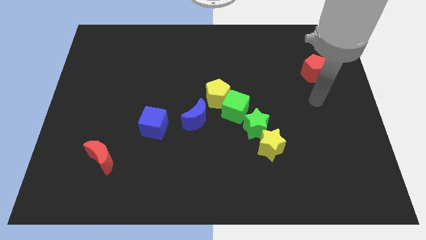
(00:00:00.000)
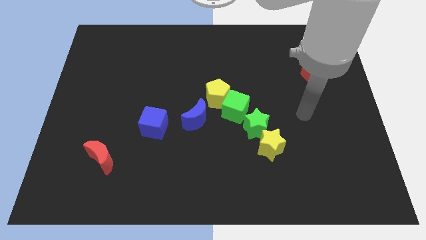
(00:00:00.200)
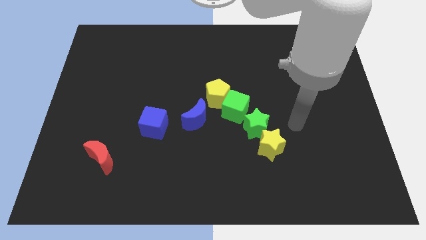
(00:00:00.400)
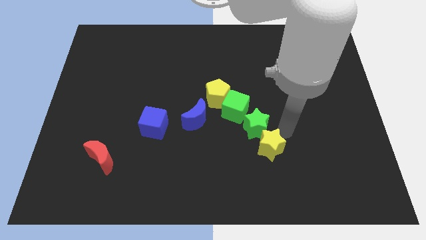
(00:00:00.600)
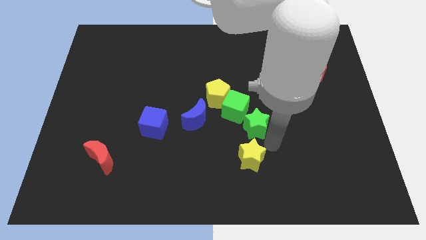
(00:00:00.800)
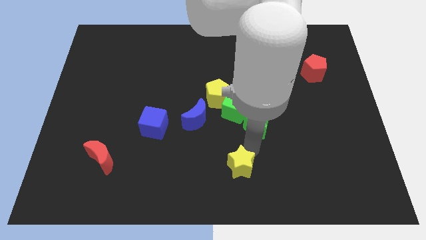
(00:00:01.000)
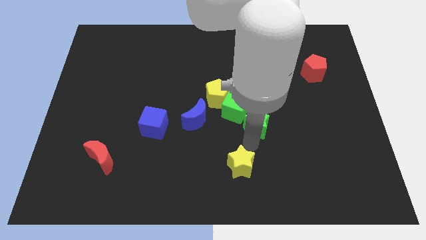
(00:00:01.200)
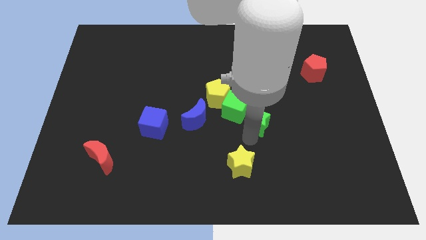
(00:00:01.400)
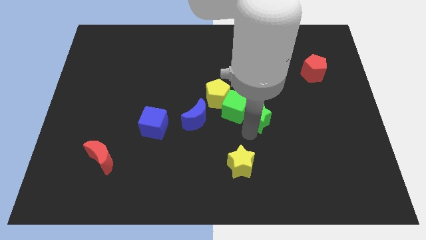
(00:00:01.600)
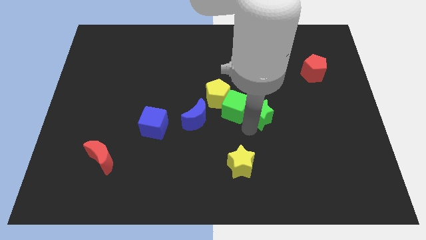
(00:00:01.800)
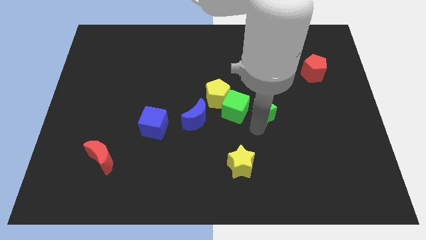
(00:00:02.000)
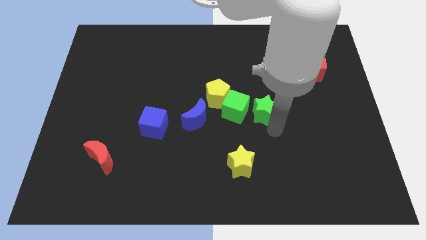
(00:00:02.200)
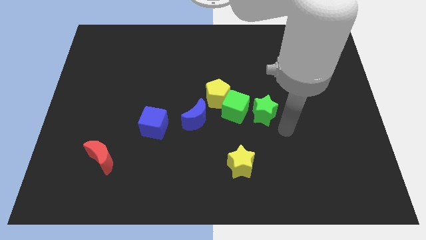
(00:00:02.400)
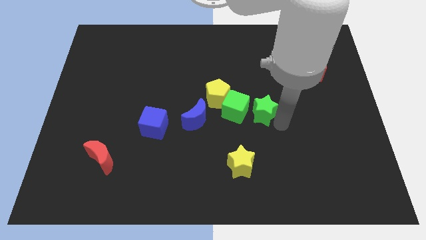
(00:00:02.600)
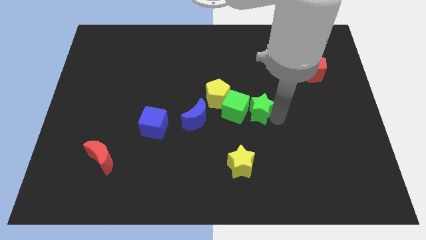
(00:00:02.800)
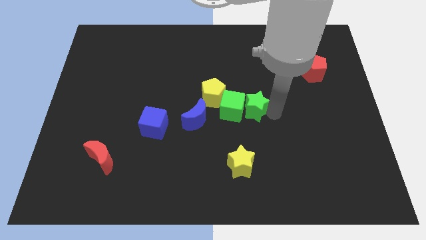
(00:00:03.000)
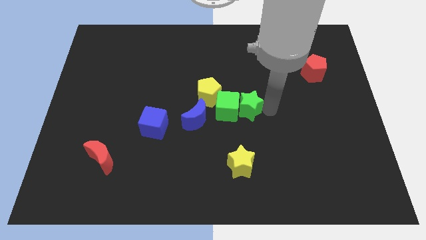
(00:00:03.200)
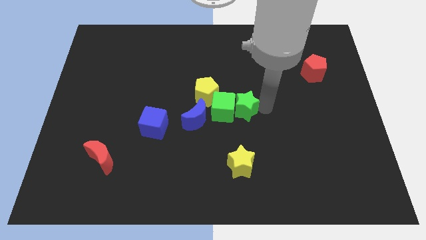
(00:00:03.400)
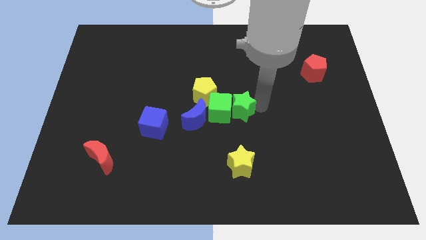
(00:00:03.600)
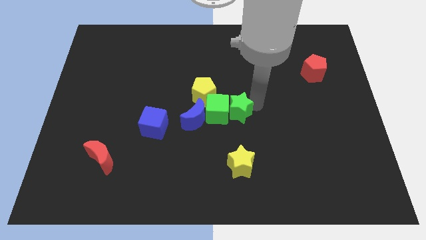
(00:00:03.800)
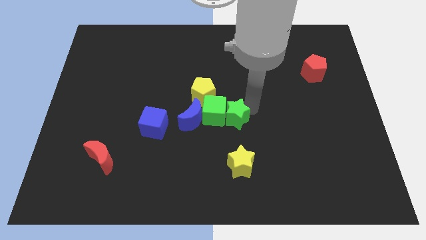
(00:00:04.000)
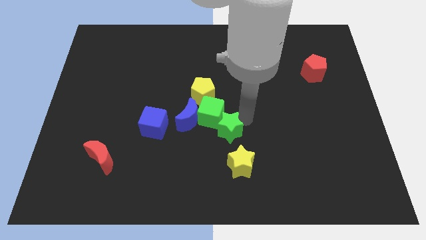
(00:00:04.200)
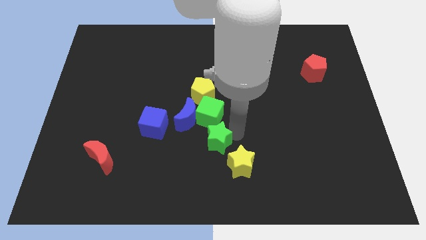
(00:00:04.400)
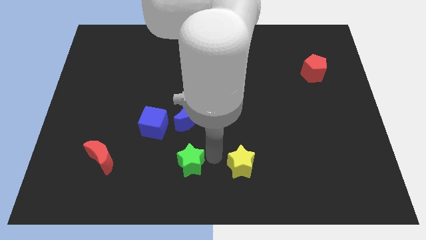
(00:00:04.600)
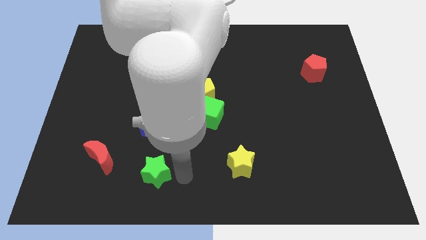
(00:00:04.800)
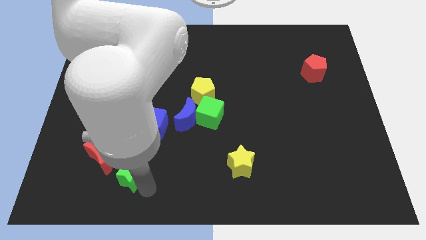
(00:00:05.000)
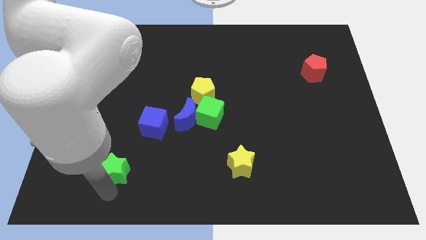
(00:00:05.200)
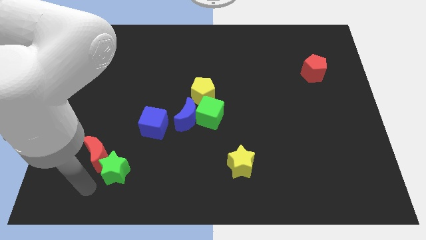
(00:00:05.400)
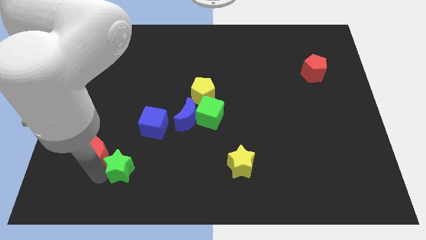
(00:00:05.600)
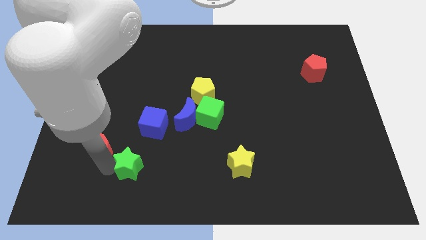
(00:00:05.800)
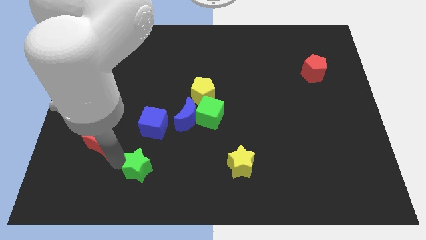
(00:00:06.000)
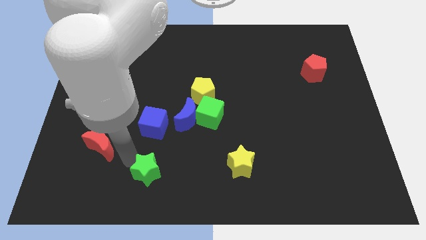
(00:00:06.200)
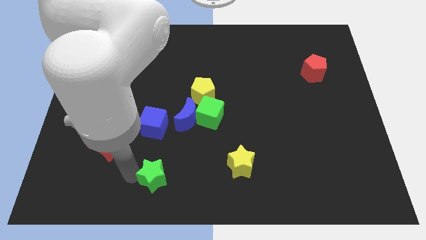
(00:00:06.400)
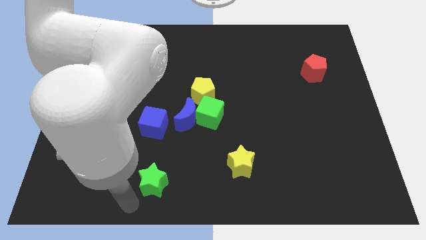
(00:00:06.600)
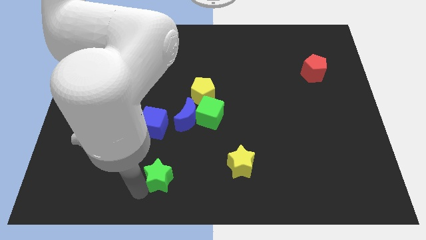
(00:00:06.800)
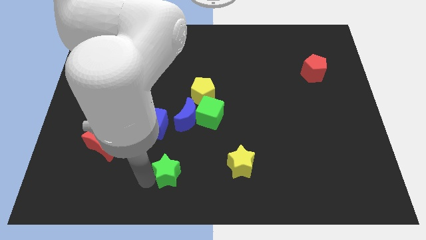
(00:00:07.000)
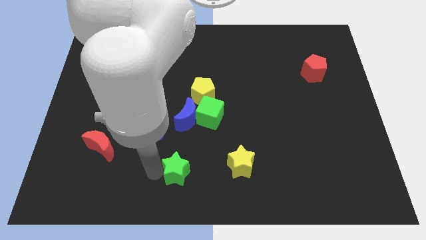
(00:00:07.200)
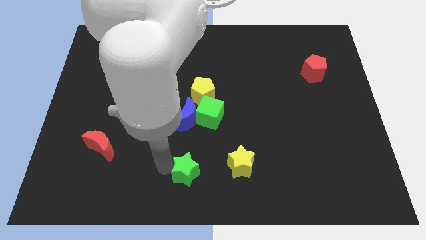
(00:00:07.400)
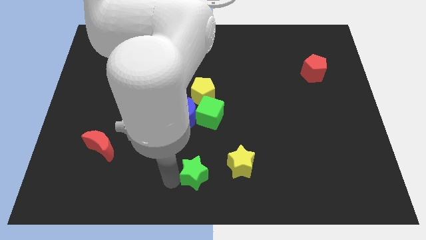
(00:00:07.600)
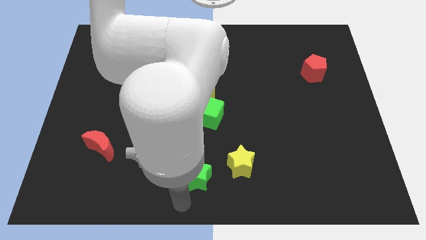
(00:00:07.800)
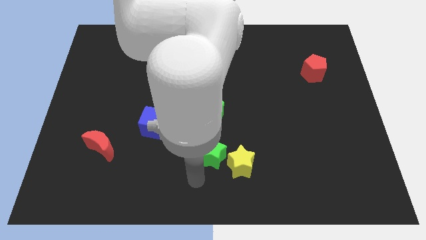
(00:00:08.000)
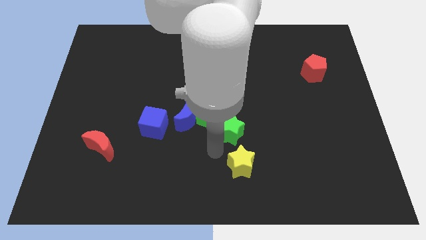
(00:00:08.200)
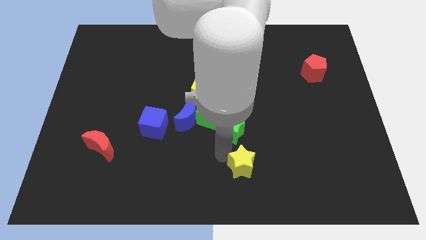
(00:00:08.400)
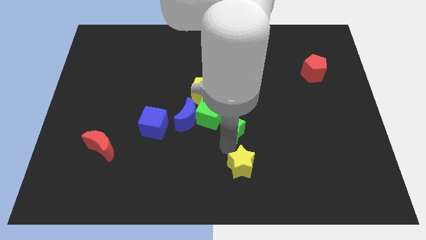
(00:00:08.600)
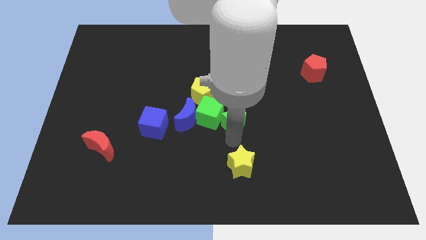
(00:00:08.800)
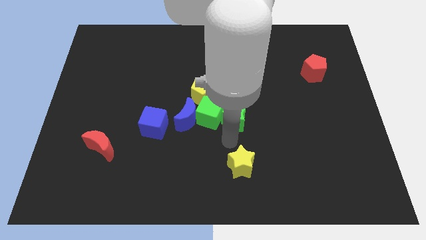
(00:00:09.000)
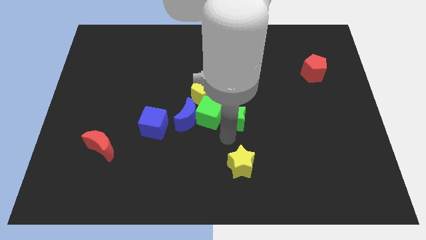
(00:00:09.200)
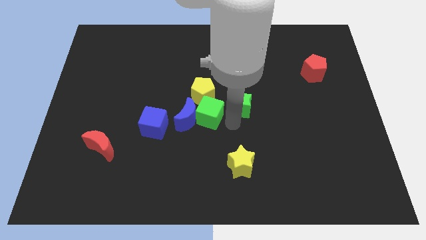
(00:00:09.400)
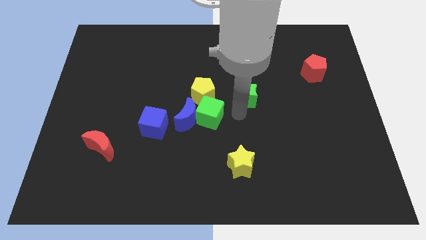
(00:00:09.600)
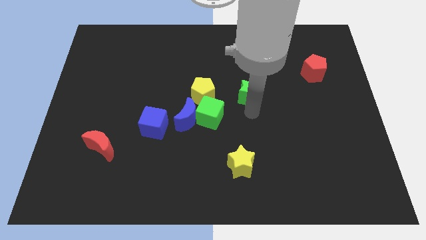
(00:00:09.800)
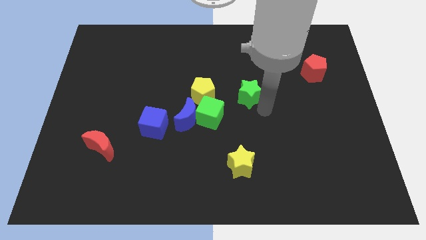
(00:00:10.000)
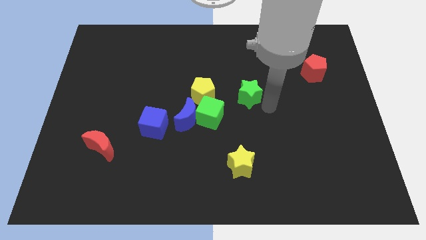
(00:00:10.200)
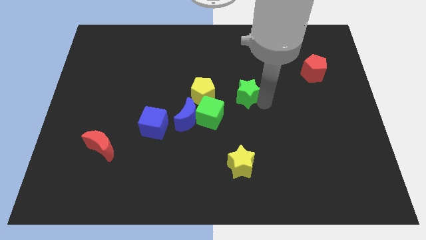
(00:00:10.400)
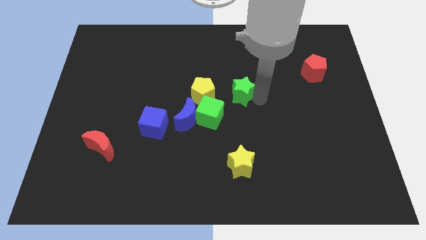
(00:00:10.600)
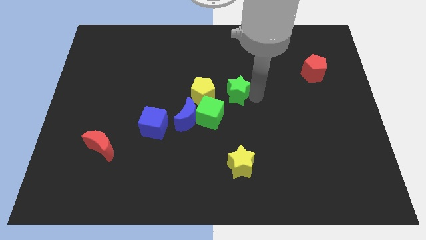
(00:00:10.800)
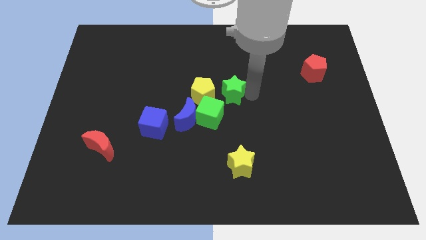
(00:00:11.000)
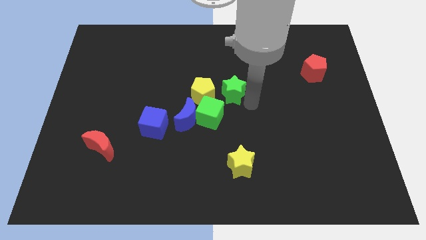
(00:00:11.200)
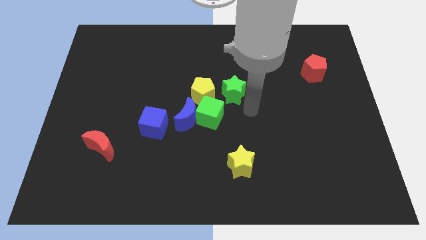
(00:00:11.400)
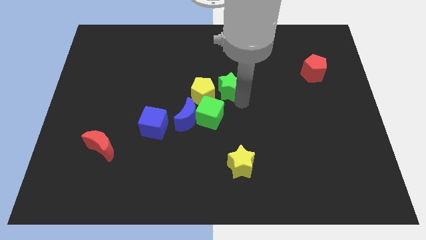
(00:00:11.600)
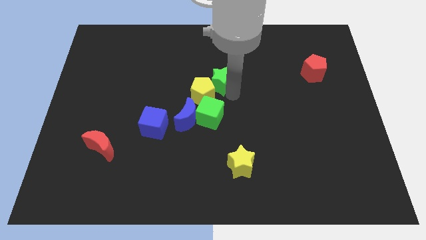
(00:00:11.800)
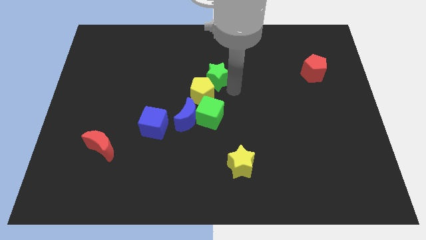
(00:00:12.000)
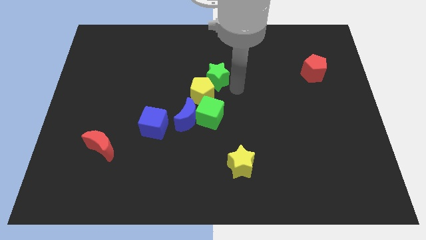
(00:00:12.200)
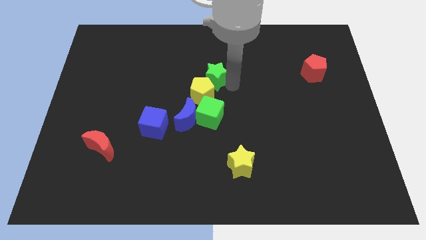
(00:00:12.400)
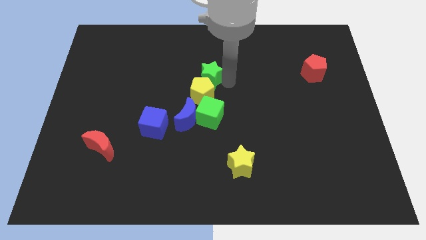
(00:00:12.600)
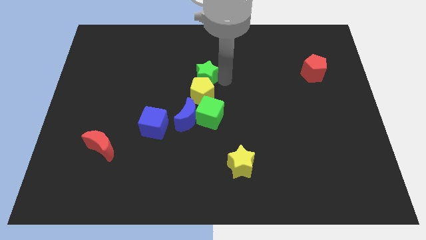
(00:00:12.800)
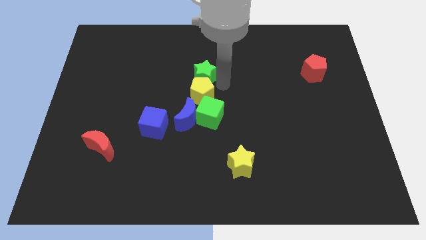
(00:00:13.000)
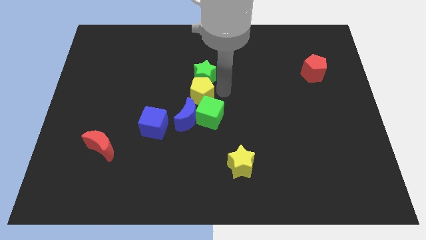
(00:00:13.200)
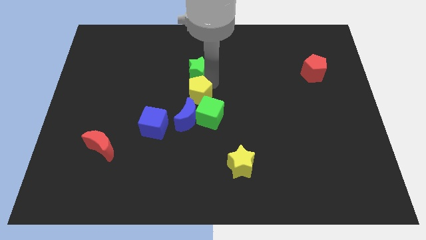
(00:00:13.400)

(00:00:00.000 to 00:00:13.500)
slide the green star diagonally upwards and left

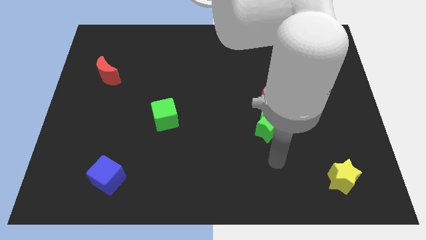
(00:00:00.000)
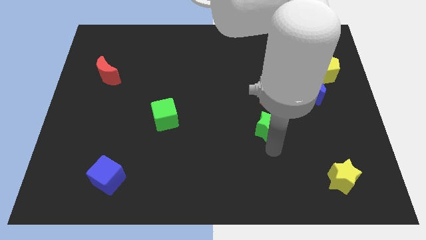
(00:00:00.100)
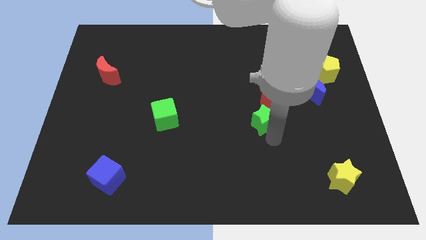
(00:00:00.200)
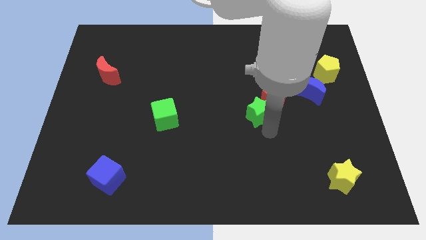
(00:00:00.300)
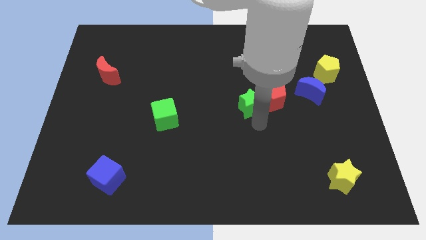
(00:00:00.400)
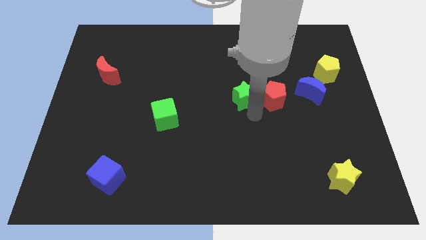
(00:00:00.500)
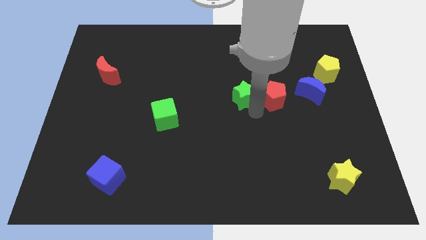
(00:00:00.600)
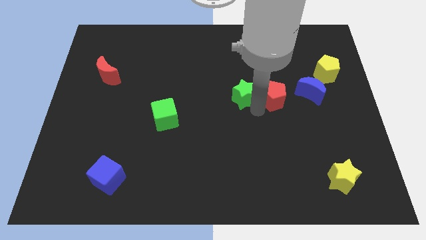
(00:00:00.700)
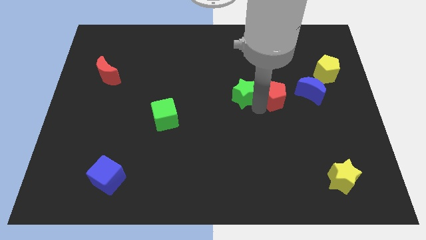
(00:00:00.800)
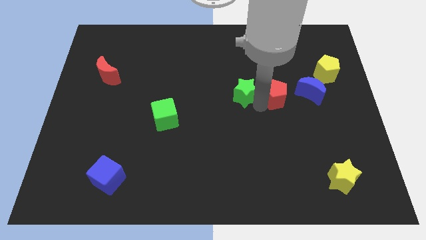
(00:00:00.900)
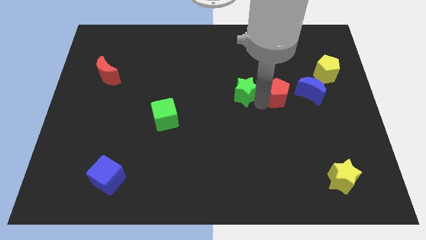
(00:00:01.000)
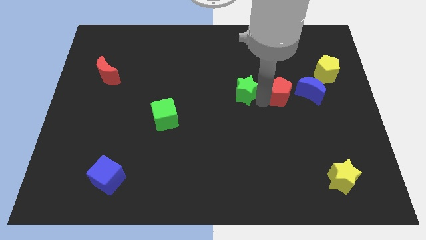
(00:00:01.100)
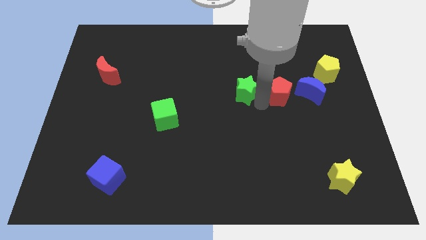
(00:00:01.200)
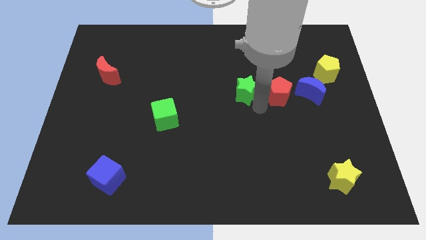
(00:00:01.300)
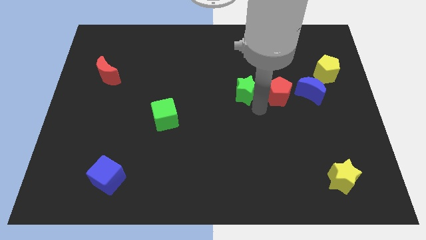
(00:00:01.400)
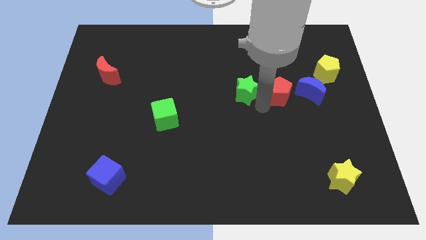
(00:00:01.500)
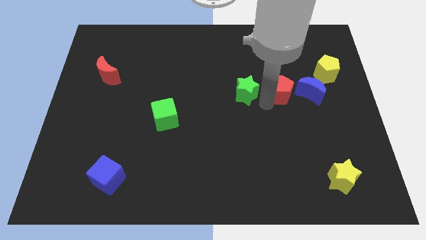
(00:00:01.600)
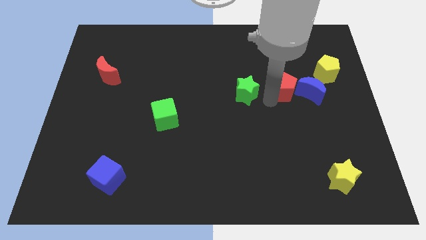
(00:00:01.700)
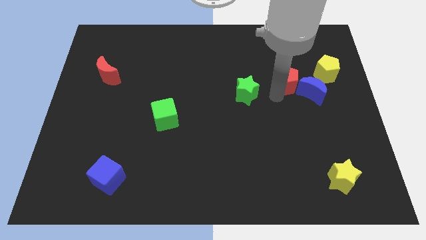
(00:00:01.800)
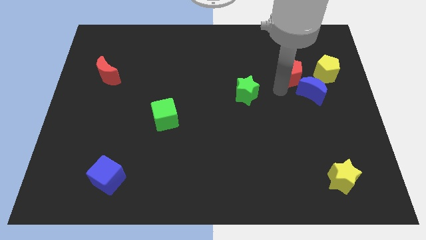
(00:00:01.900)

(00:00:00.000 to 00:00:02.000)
move the red pentagon somewhat upwards and then right
